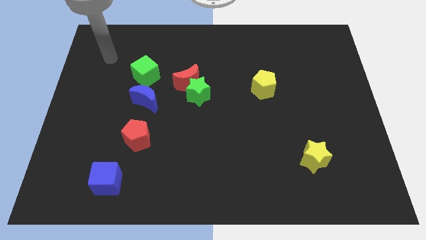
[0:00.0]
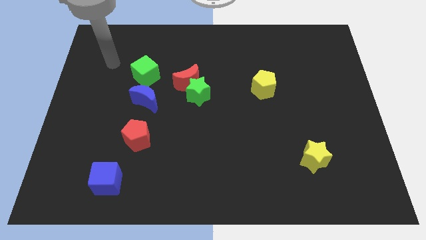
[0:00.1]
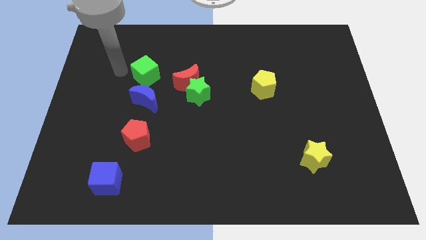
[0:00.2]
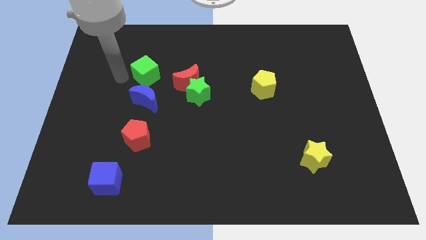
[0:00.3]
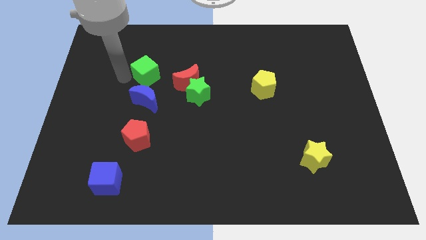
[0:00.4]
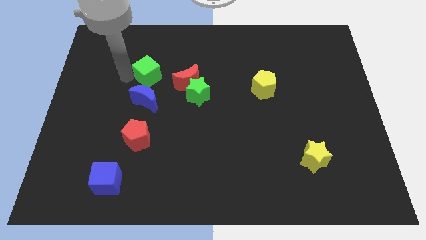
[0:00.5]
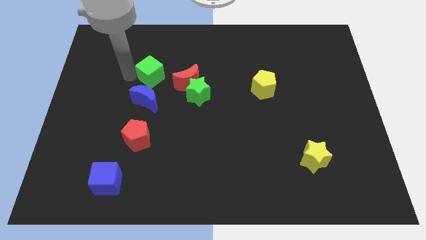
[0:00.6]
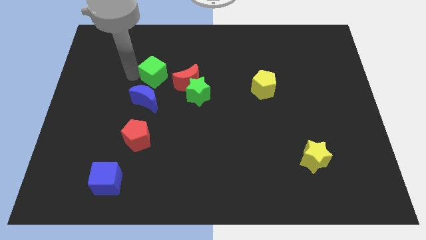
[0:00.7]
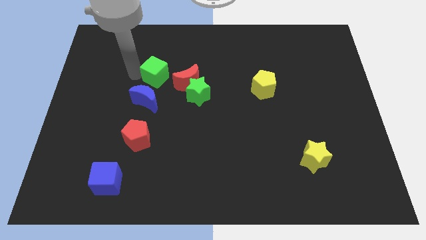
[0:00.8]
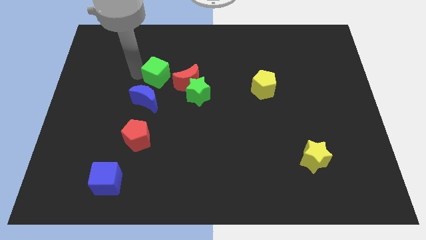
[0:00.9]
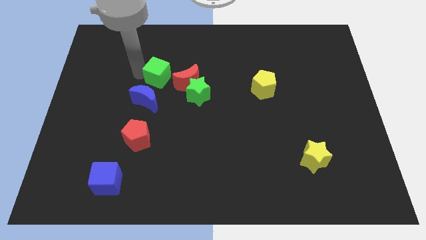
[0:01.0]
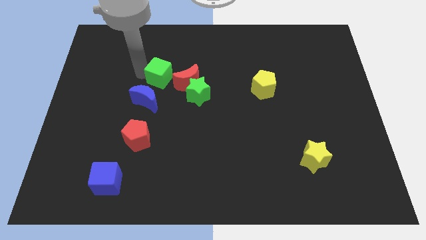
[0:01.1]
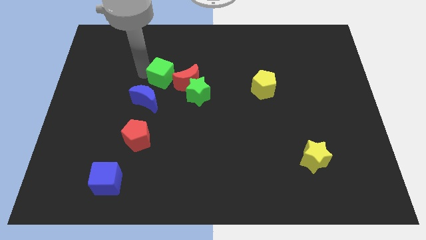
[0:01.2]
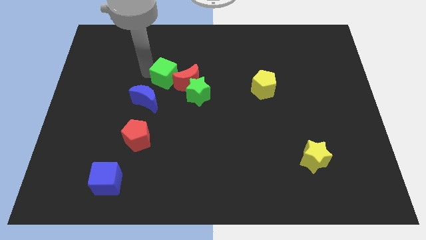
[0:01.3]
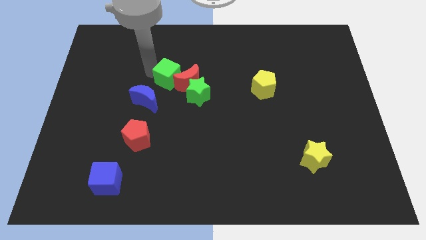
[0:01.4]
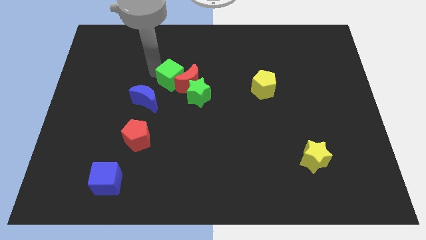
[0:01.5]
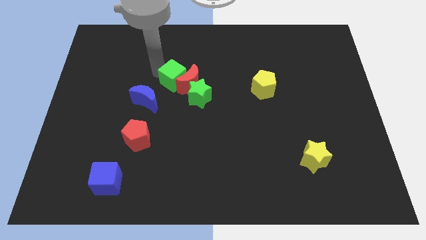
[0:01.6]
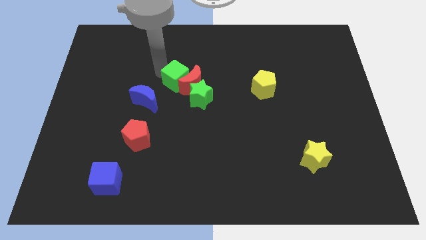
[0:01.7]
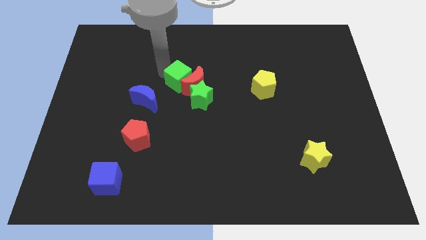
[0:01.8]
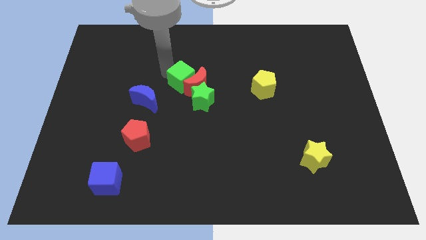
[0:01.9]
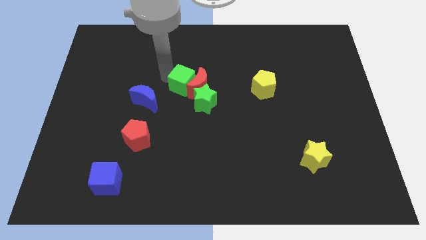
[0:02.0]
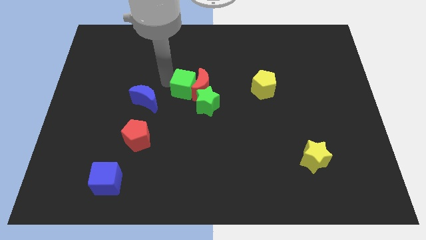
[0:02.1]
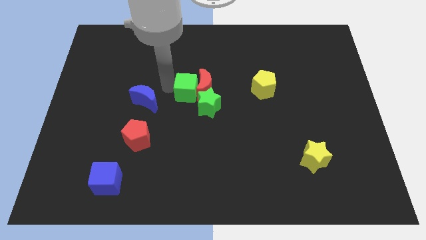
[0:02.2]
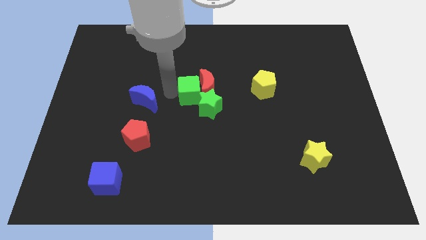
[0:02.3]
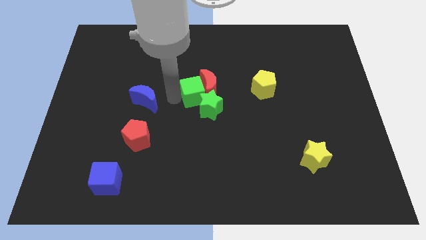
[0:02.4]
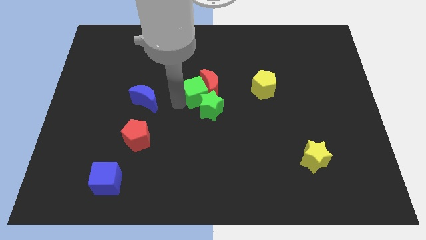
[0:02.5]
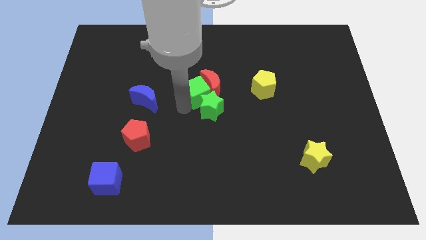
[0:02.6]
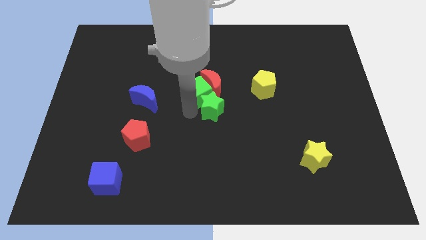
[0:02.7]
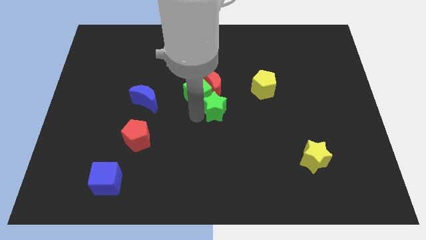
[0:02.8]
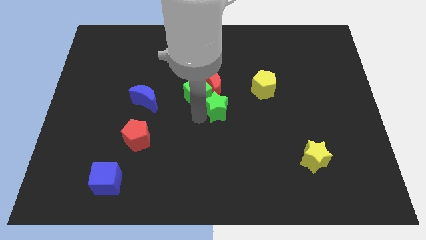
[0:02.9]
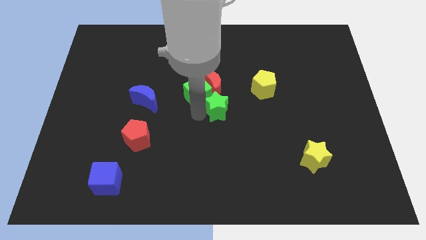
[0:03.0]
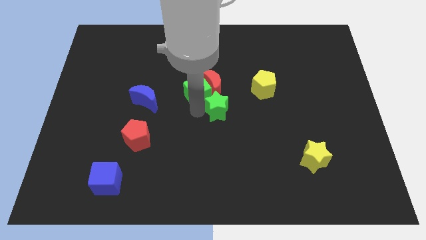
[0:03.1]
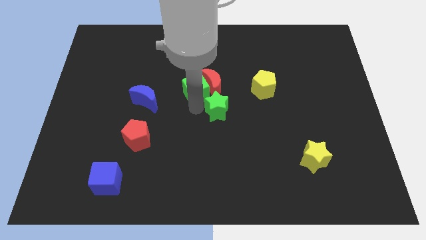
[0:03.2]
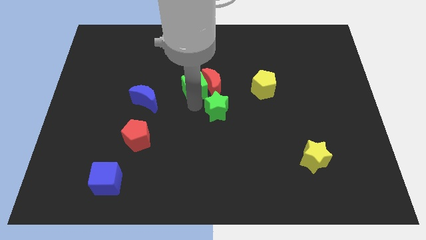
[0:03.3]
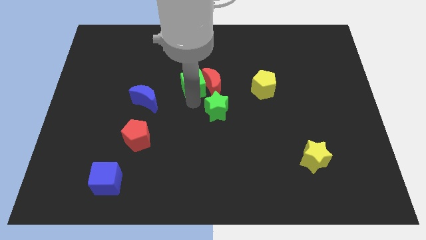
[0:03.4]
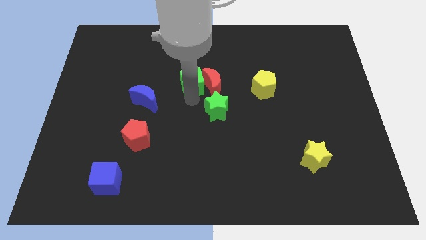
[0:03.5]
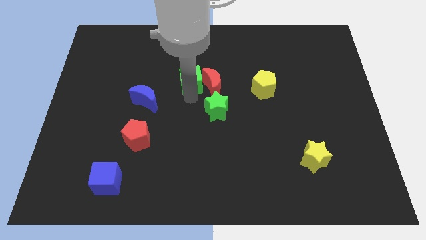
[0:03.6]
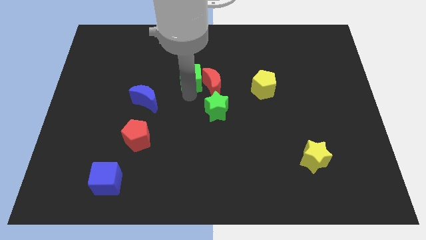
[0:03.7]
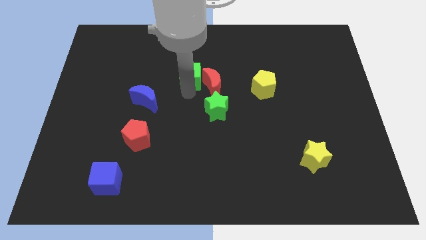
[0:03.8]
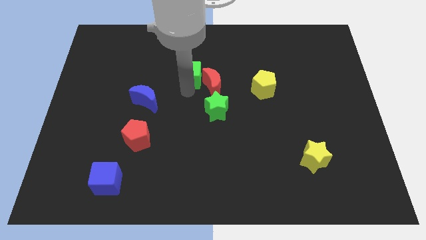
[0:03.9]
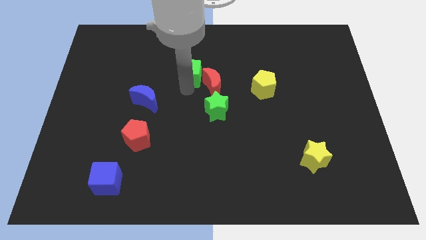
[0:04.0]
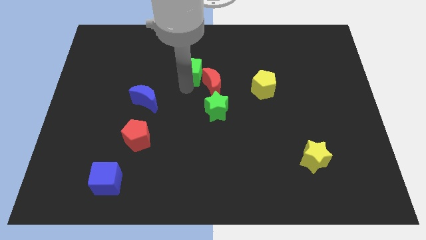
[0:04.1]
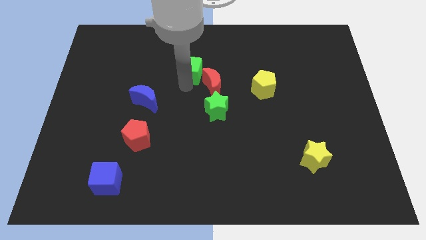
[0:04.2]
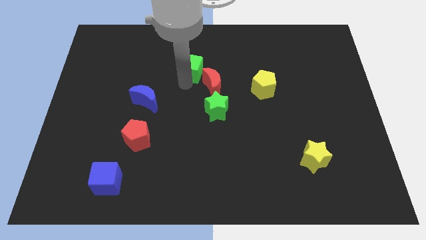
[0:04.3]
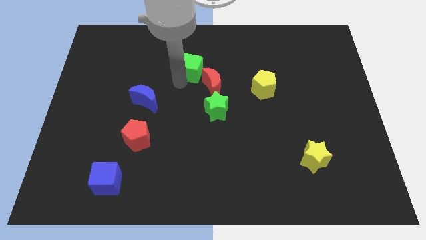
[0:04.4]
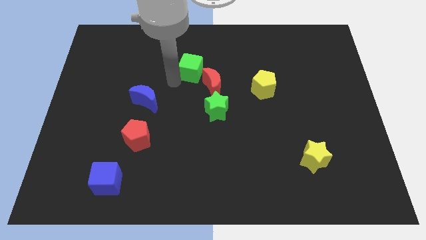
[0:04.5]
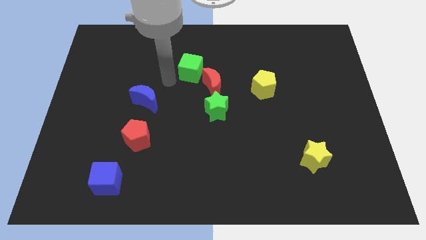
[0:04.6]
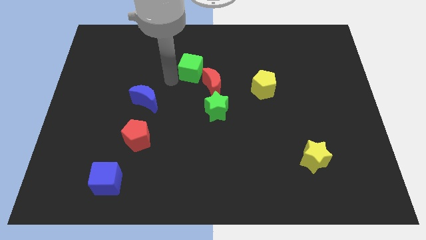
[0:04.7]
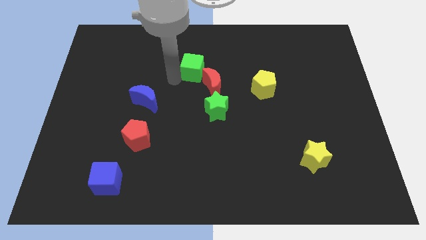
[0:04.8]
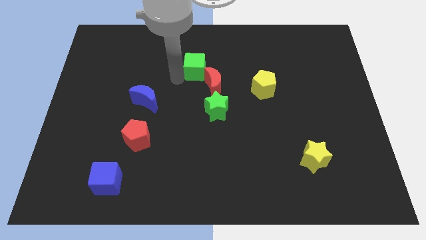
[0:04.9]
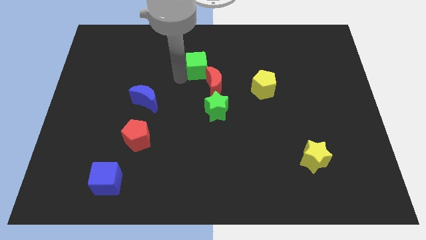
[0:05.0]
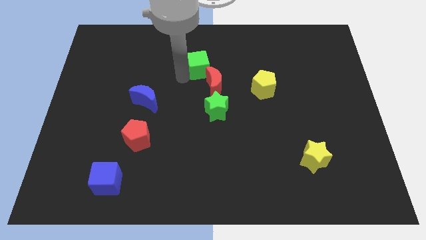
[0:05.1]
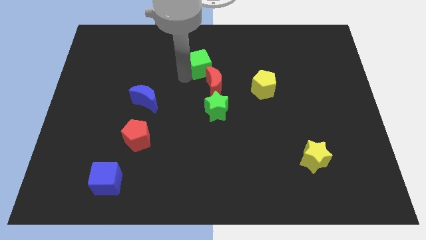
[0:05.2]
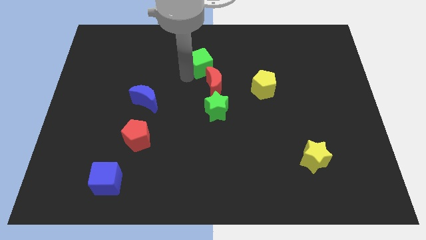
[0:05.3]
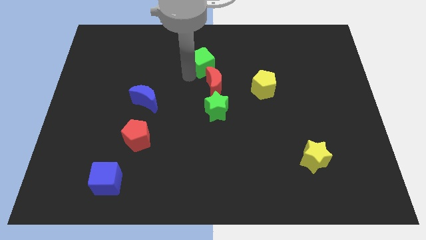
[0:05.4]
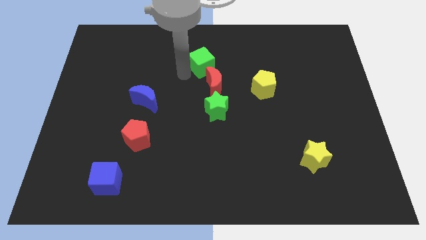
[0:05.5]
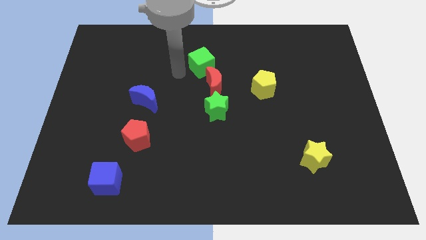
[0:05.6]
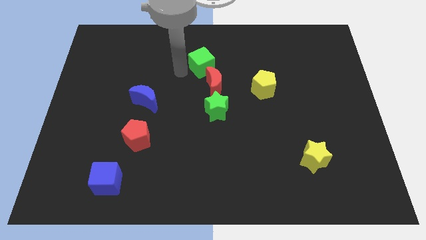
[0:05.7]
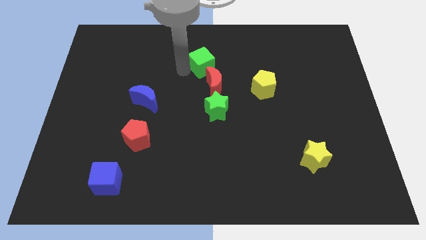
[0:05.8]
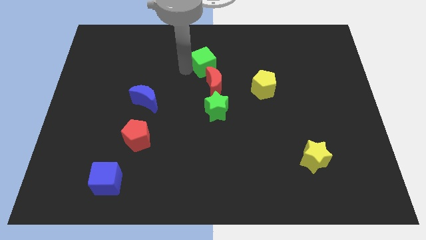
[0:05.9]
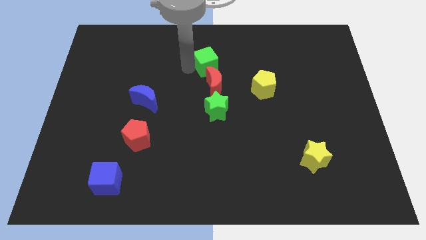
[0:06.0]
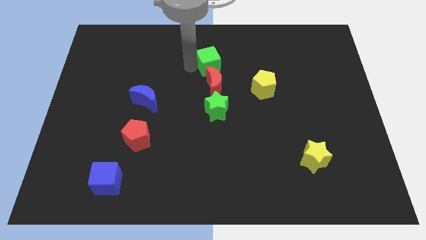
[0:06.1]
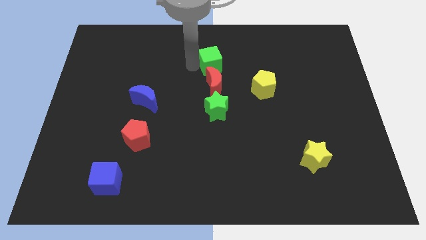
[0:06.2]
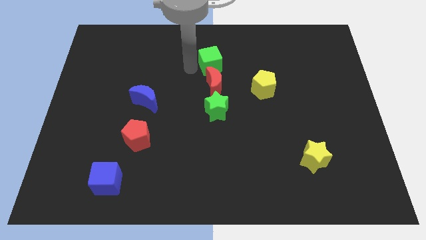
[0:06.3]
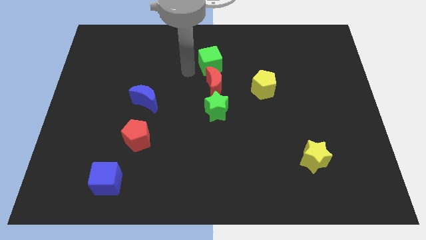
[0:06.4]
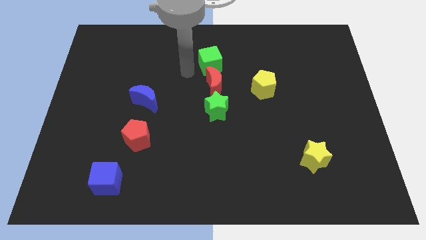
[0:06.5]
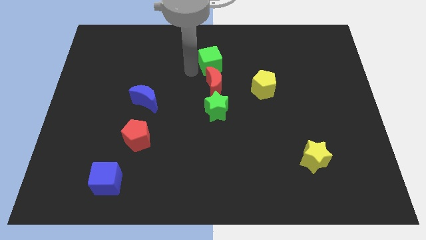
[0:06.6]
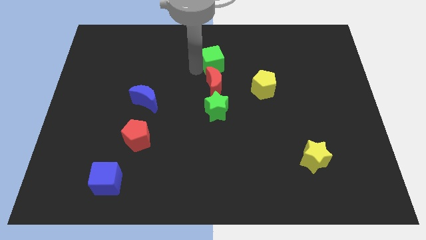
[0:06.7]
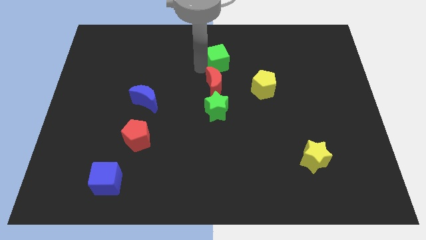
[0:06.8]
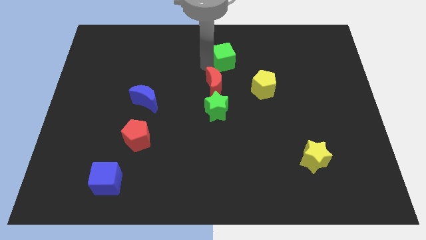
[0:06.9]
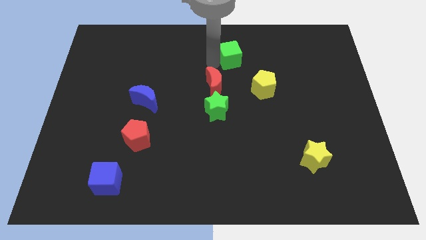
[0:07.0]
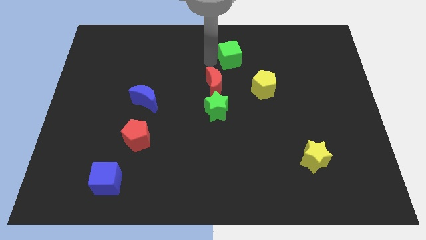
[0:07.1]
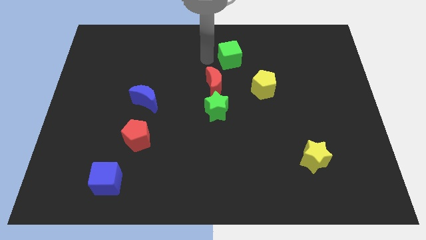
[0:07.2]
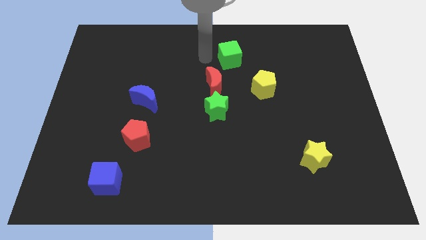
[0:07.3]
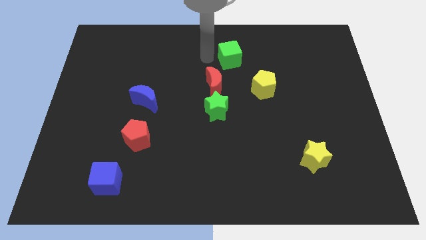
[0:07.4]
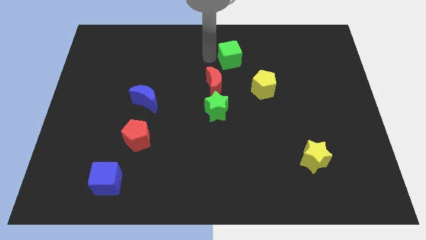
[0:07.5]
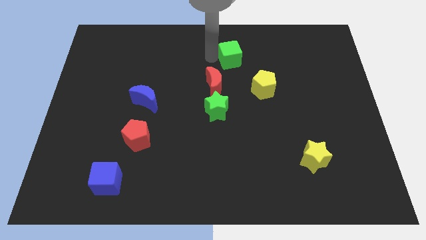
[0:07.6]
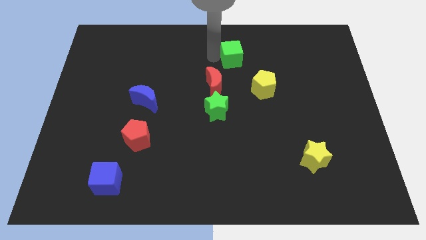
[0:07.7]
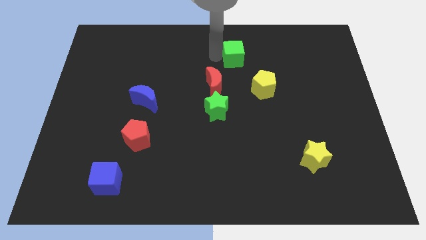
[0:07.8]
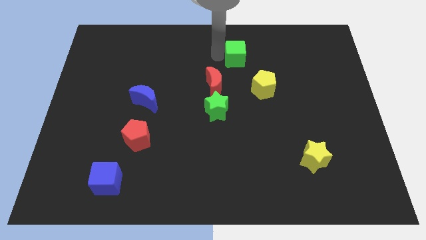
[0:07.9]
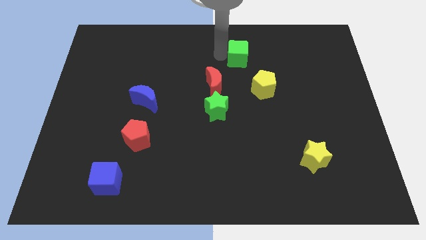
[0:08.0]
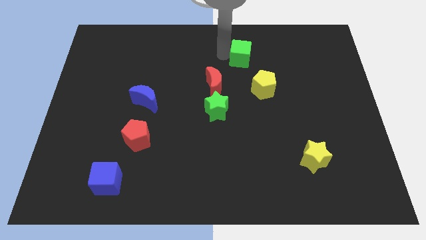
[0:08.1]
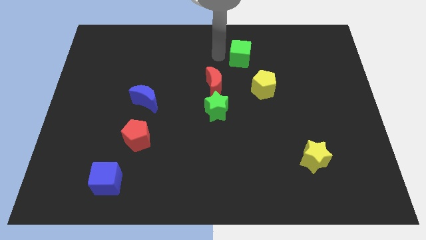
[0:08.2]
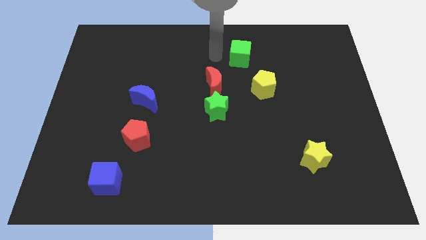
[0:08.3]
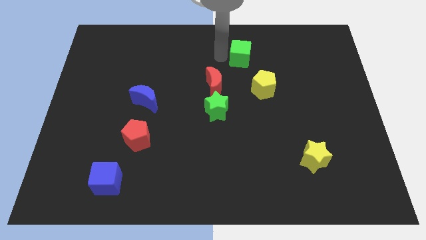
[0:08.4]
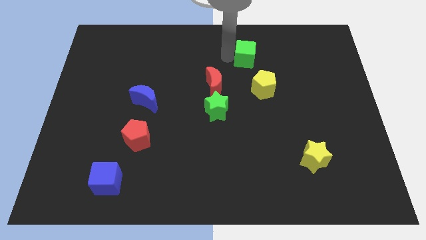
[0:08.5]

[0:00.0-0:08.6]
move the green cube to the top side of the yellow pentagon
